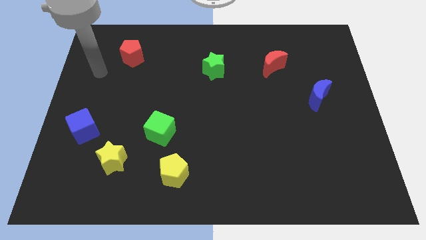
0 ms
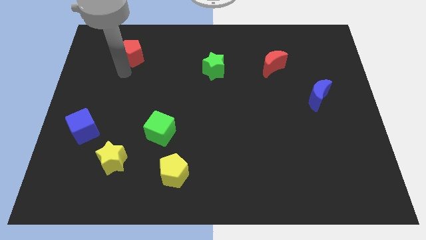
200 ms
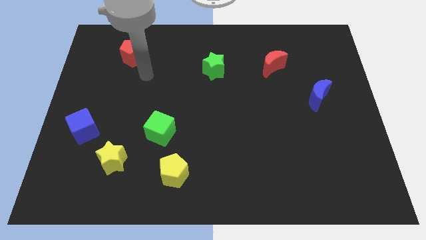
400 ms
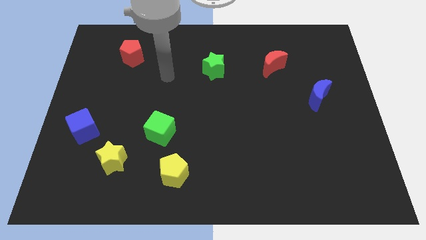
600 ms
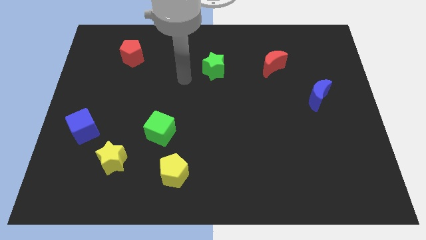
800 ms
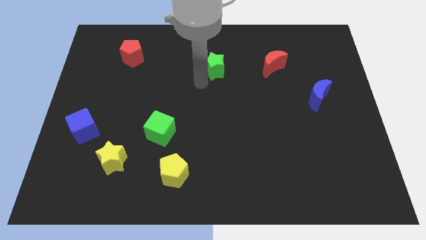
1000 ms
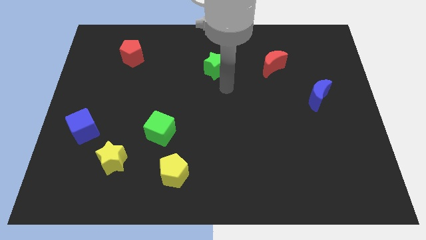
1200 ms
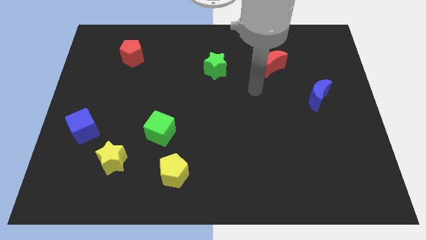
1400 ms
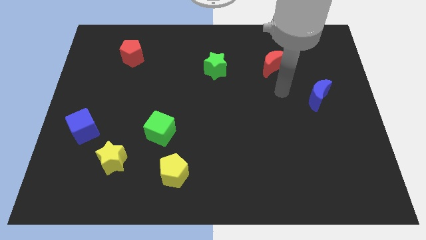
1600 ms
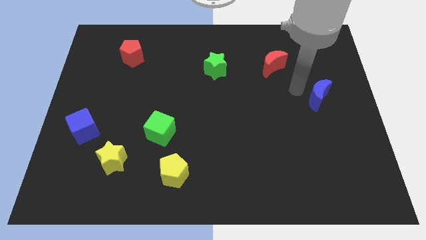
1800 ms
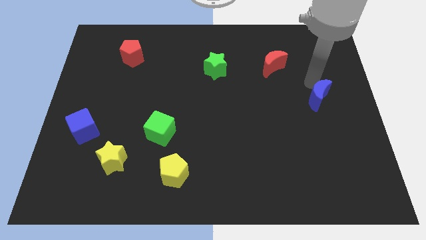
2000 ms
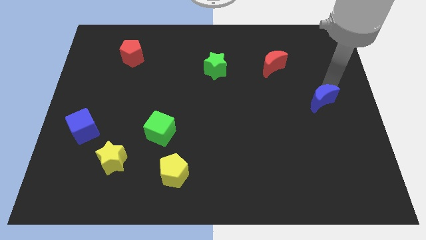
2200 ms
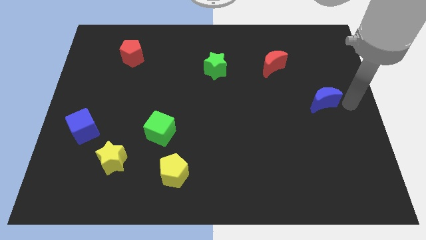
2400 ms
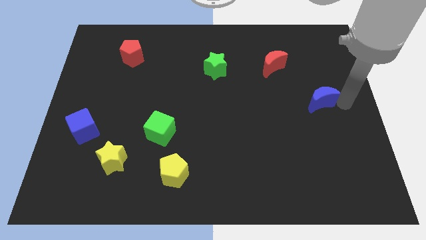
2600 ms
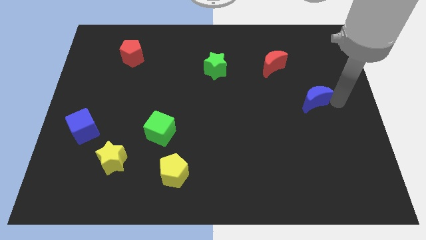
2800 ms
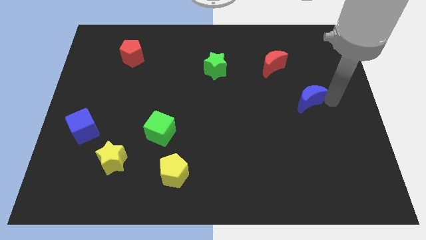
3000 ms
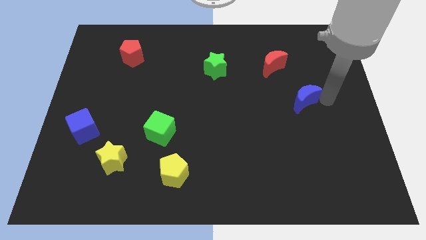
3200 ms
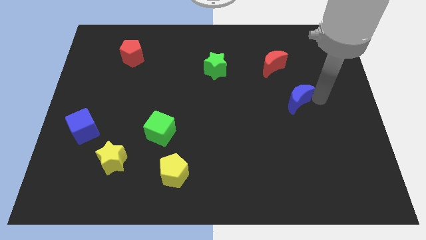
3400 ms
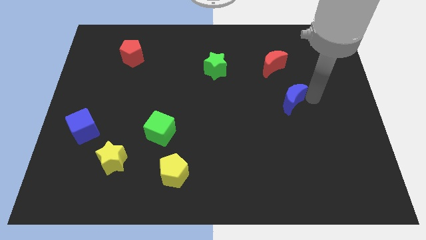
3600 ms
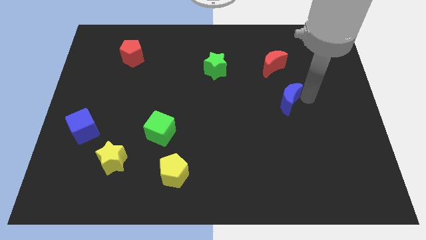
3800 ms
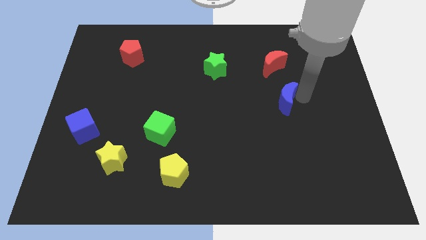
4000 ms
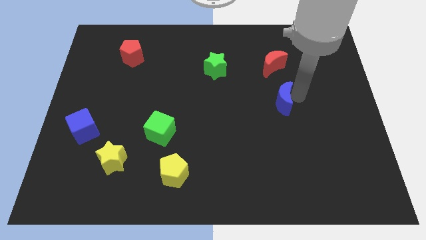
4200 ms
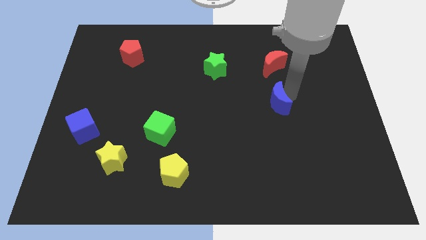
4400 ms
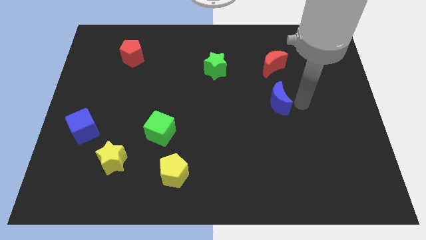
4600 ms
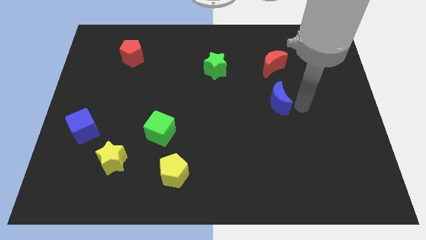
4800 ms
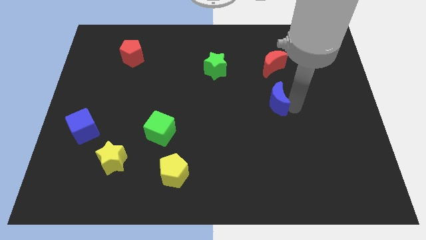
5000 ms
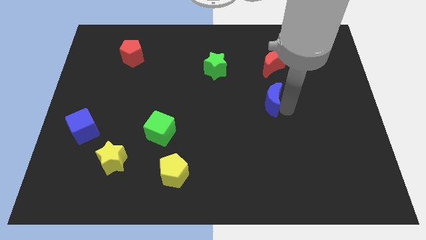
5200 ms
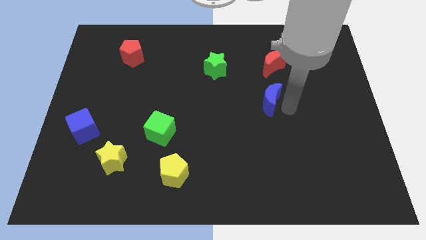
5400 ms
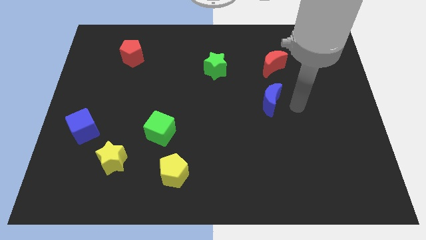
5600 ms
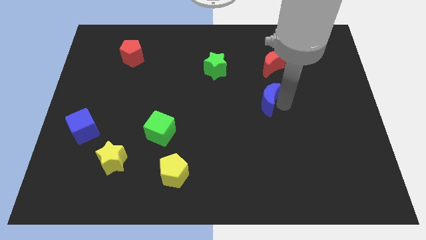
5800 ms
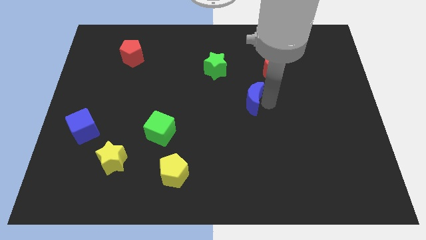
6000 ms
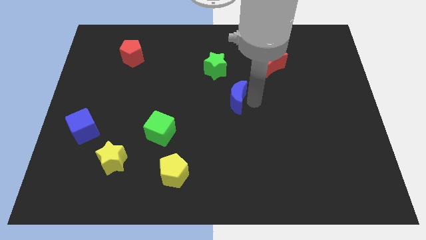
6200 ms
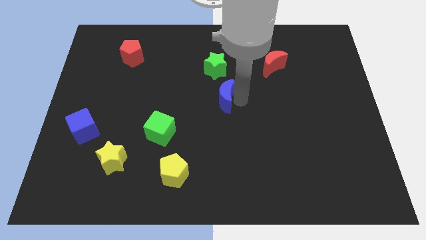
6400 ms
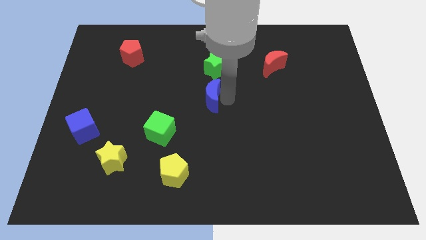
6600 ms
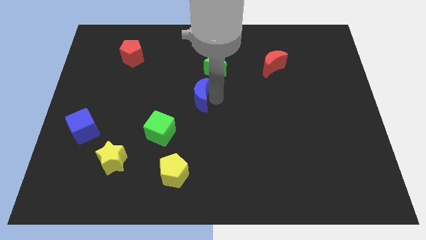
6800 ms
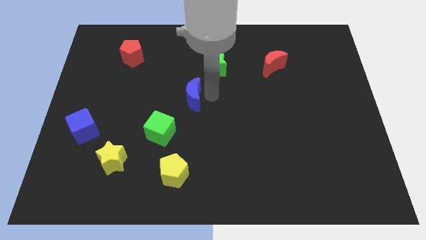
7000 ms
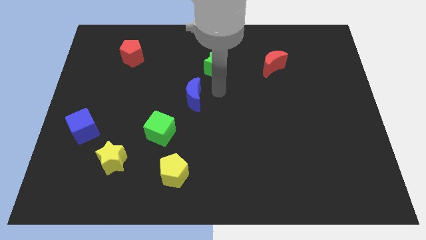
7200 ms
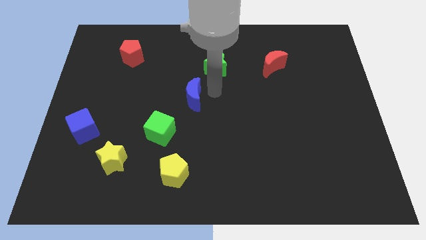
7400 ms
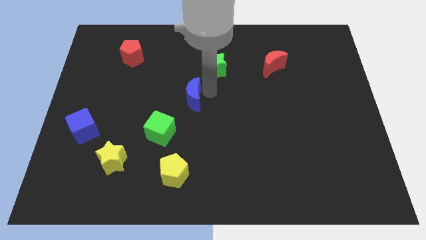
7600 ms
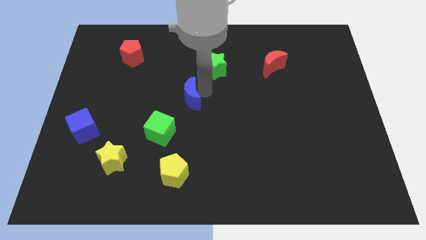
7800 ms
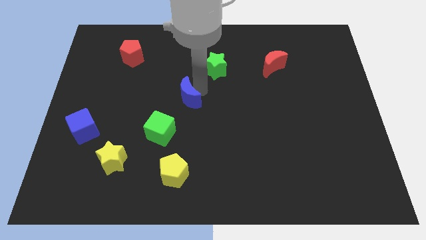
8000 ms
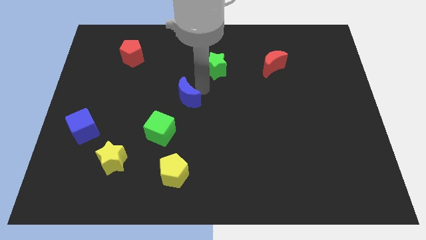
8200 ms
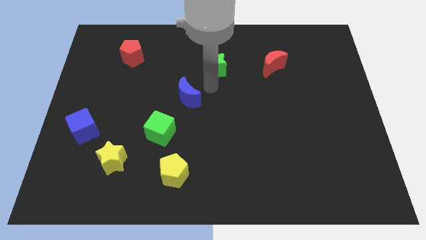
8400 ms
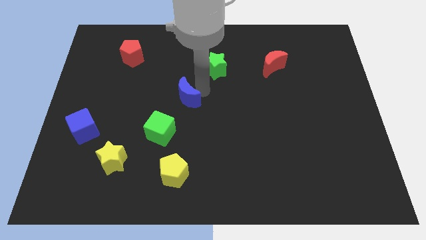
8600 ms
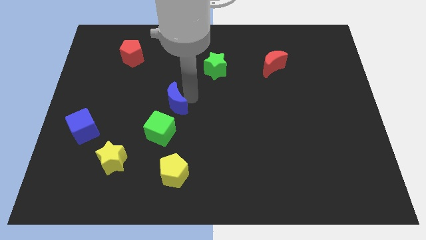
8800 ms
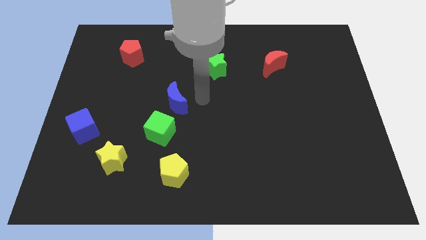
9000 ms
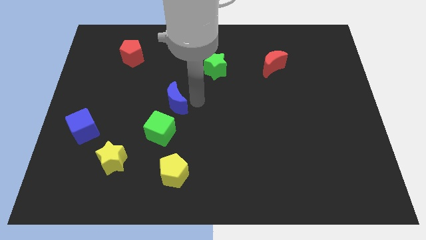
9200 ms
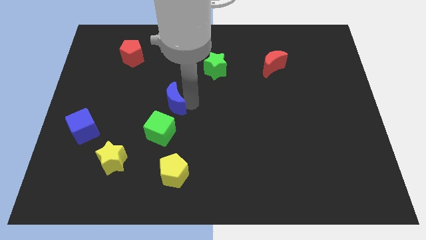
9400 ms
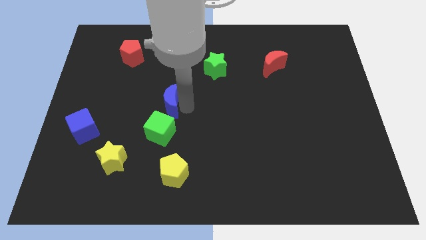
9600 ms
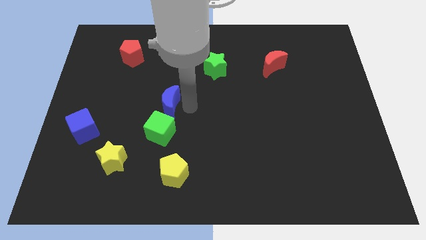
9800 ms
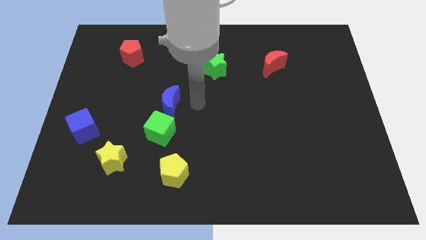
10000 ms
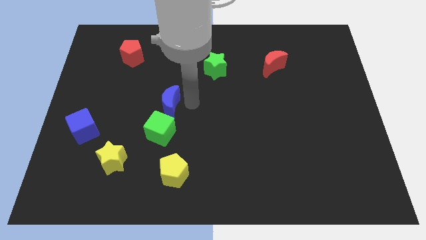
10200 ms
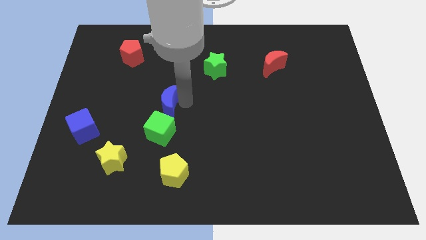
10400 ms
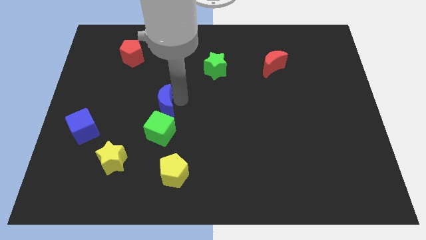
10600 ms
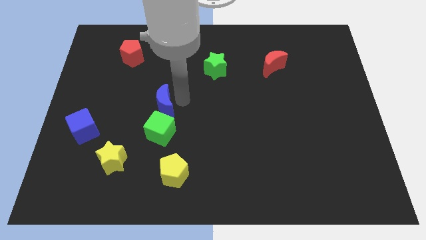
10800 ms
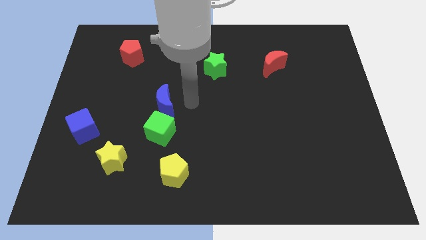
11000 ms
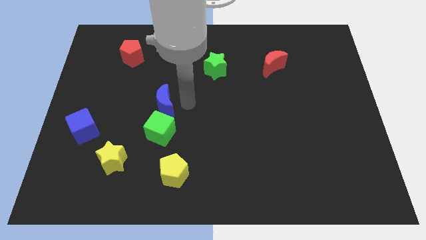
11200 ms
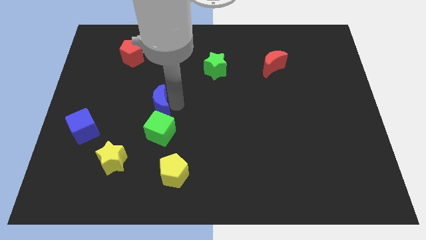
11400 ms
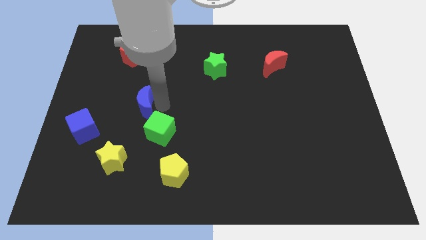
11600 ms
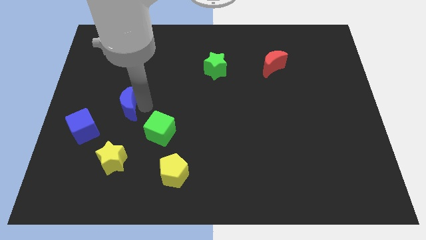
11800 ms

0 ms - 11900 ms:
slide the blue moon diagonally up and to the right of the blue cube

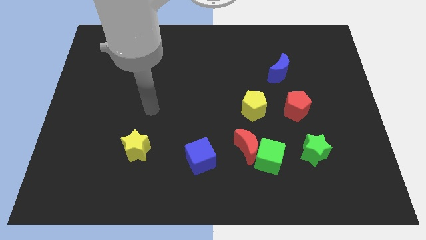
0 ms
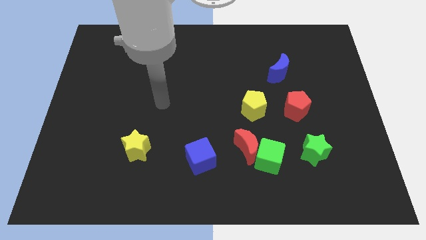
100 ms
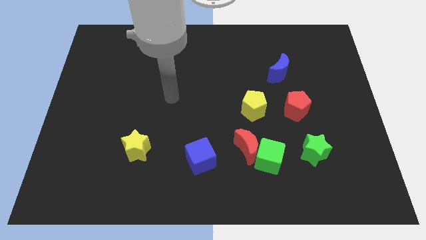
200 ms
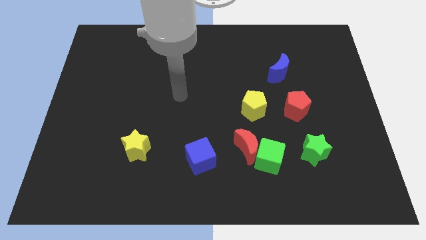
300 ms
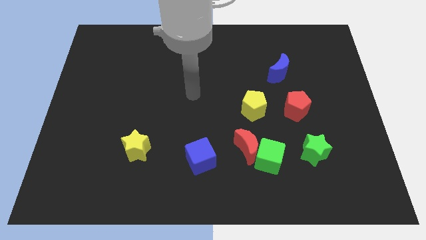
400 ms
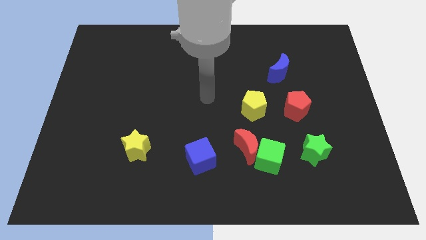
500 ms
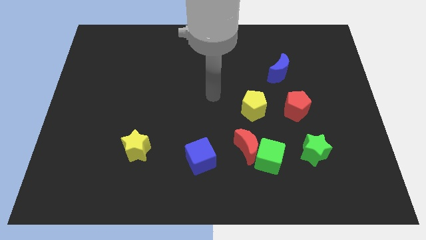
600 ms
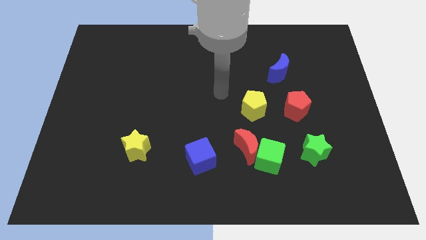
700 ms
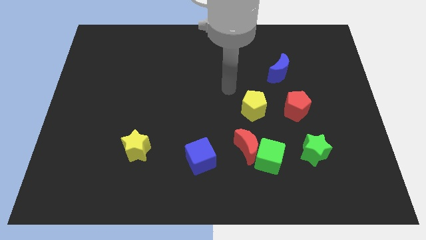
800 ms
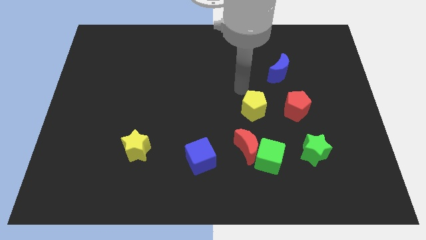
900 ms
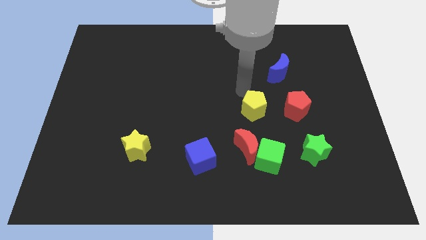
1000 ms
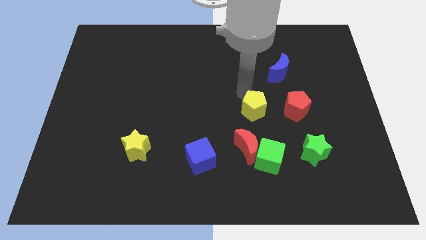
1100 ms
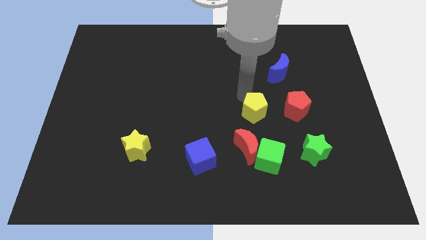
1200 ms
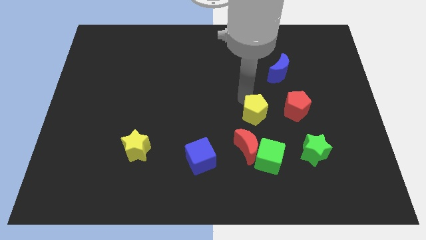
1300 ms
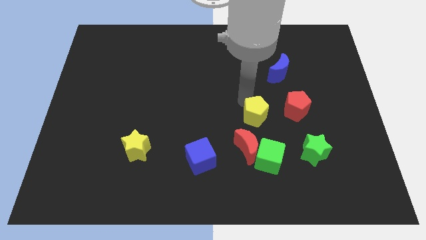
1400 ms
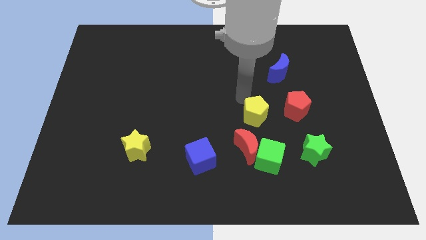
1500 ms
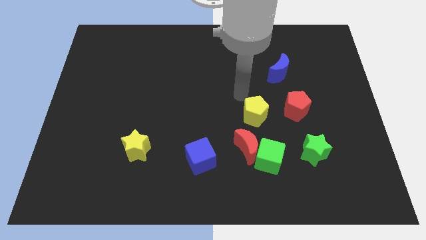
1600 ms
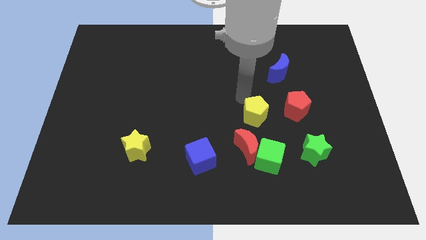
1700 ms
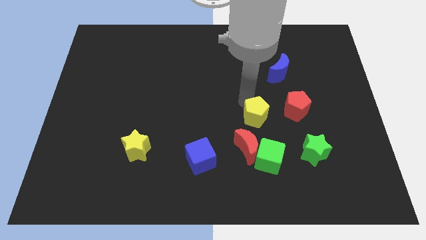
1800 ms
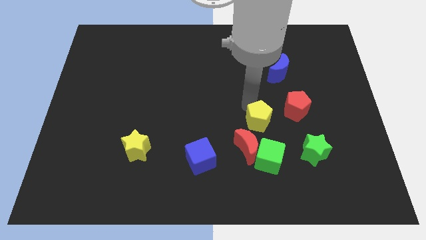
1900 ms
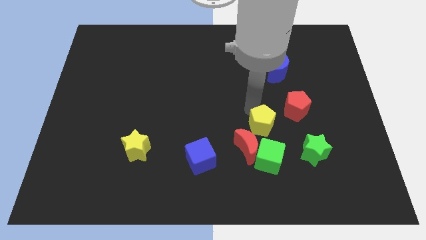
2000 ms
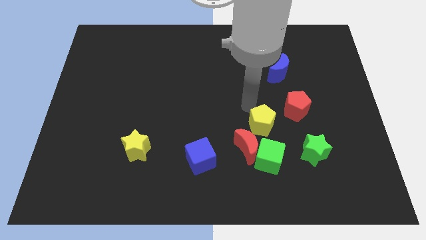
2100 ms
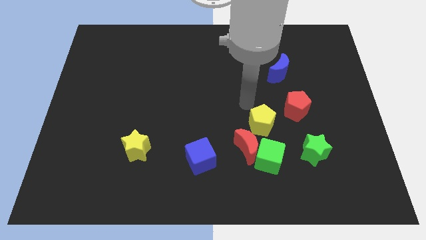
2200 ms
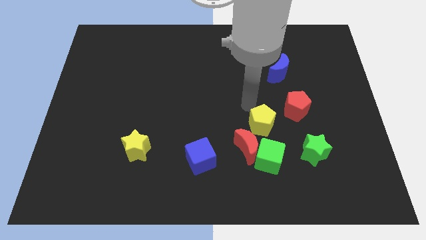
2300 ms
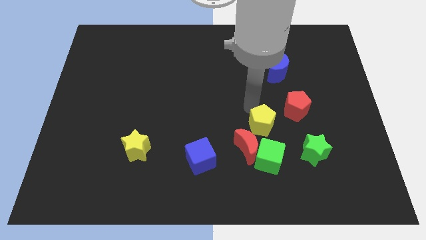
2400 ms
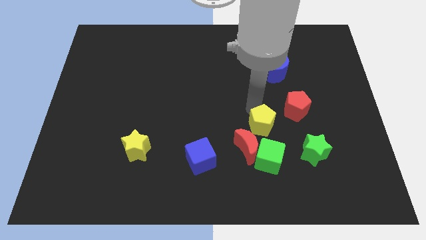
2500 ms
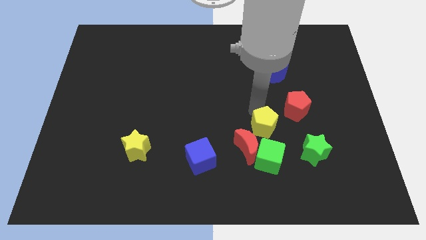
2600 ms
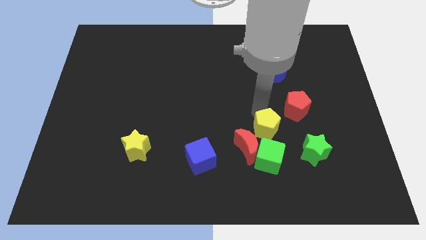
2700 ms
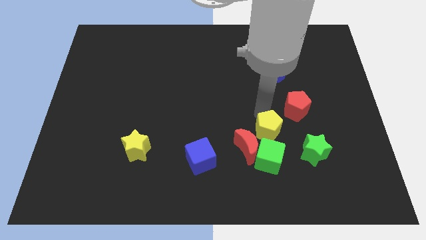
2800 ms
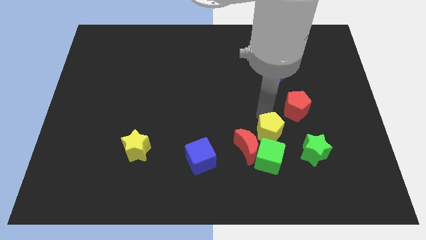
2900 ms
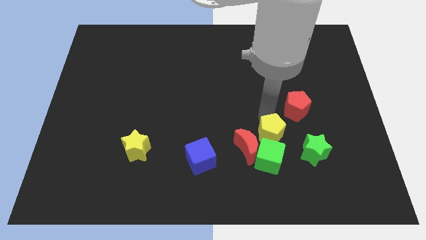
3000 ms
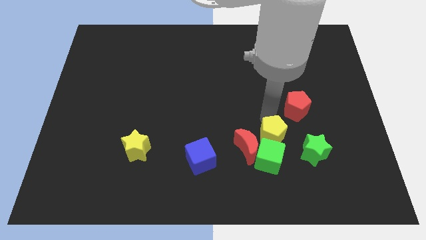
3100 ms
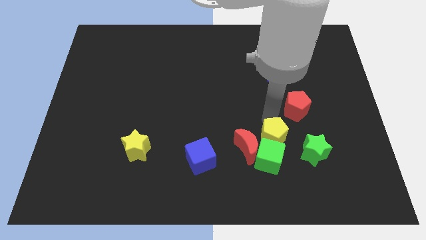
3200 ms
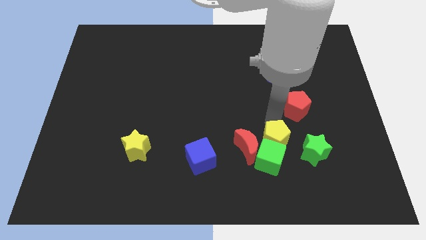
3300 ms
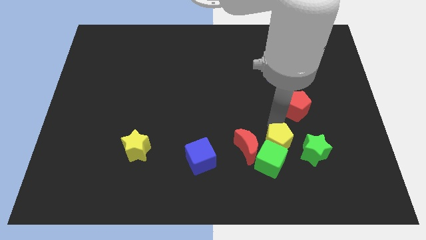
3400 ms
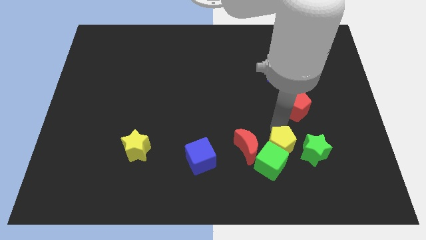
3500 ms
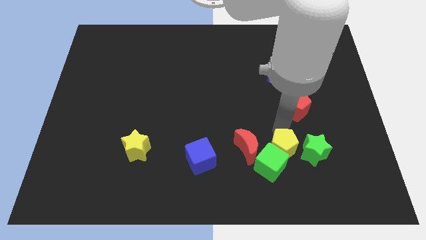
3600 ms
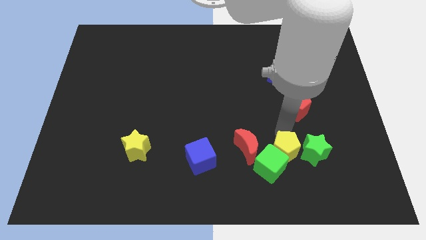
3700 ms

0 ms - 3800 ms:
put the yellow pentagon to the bottom left of the green star
